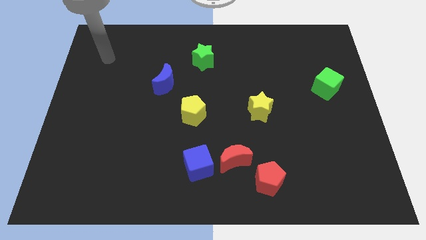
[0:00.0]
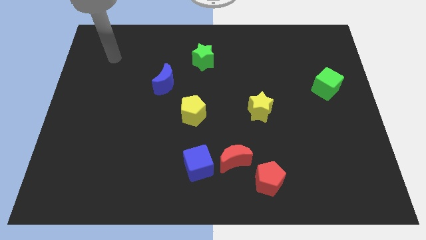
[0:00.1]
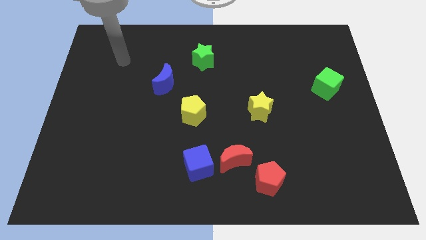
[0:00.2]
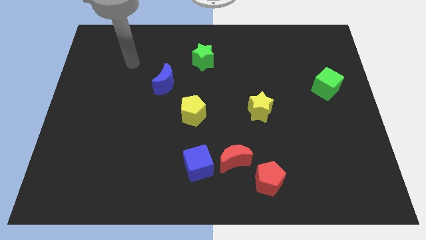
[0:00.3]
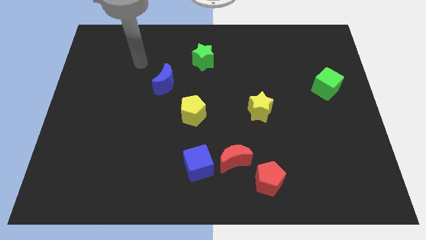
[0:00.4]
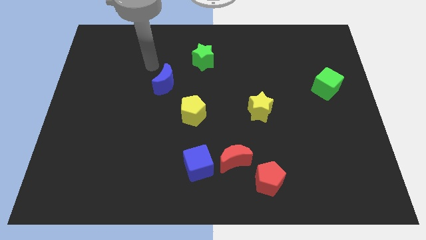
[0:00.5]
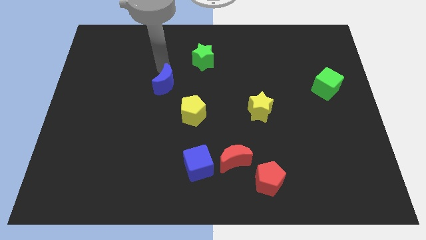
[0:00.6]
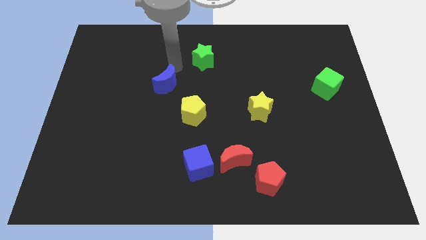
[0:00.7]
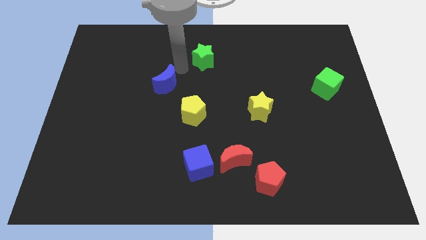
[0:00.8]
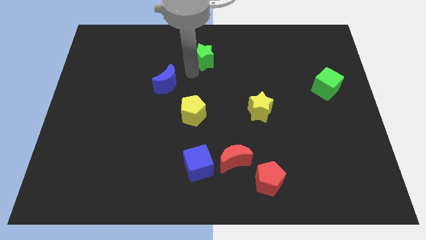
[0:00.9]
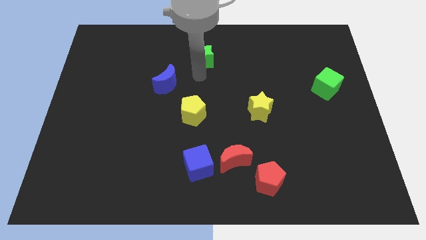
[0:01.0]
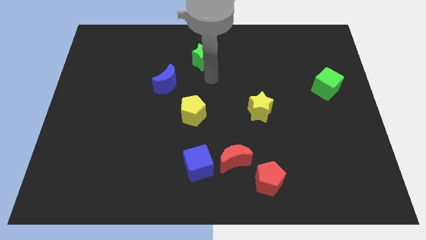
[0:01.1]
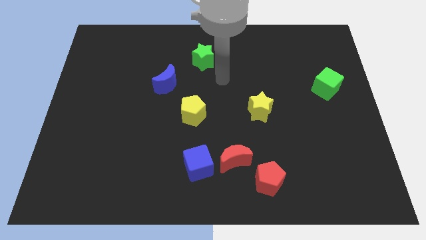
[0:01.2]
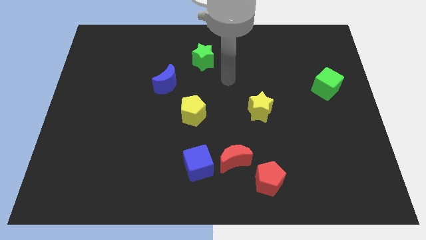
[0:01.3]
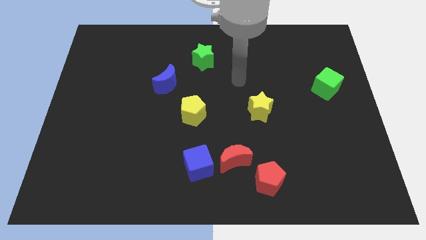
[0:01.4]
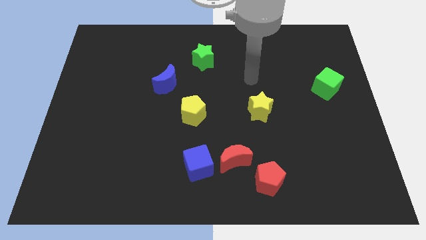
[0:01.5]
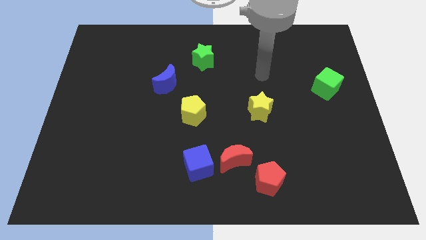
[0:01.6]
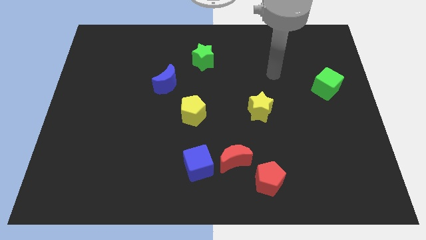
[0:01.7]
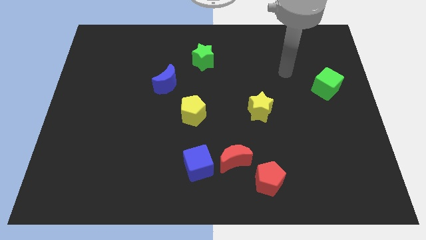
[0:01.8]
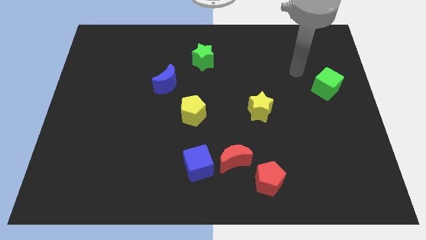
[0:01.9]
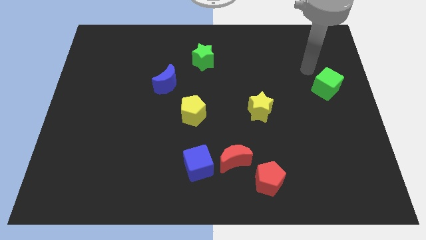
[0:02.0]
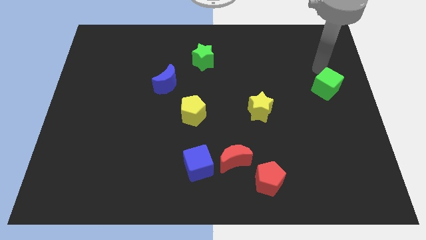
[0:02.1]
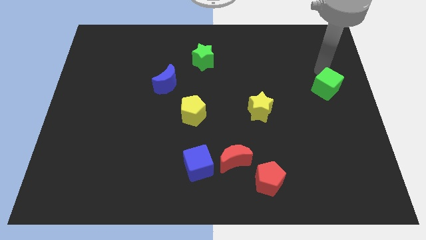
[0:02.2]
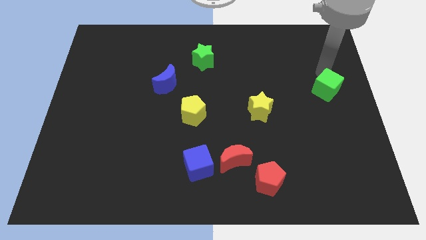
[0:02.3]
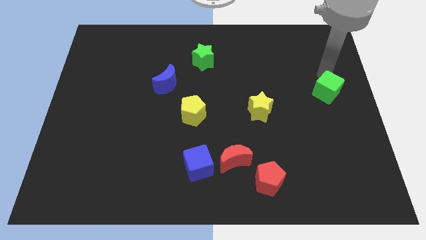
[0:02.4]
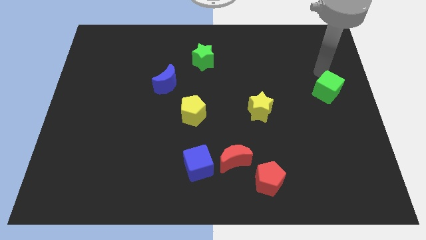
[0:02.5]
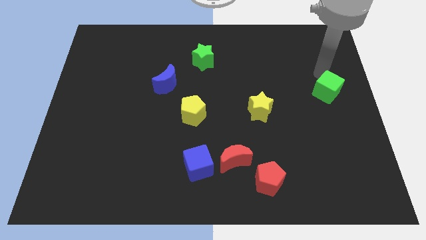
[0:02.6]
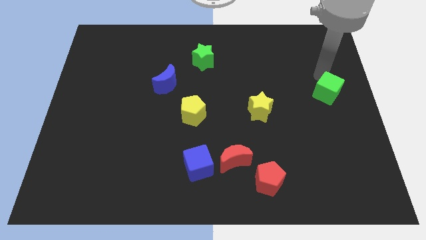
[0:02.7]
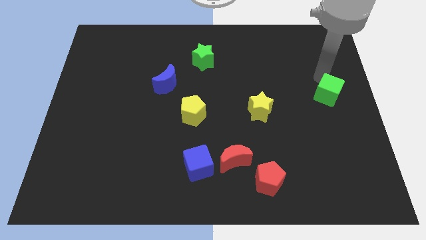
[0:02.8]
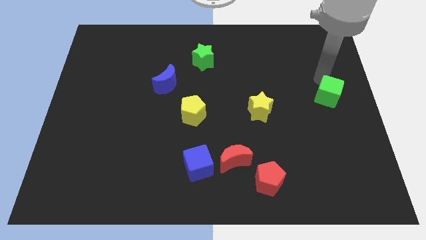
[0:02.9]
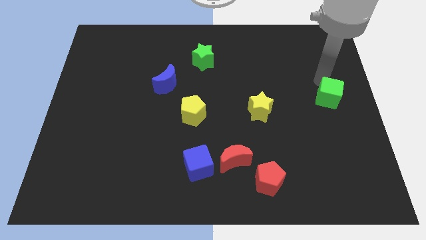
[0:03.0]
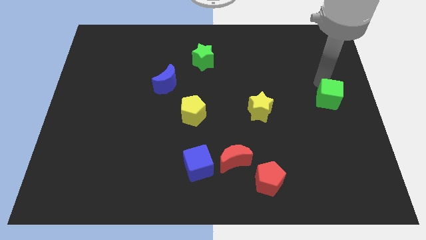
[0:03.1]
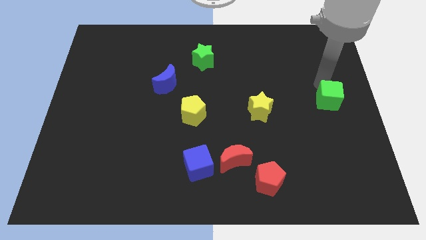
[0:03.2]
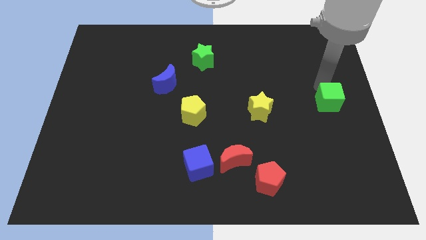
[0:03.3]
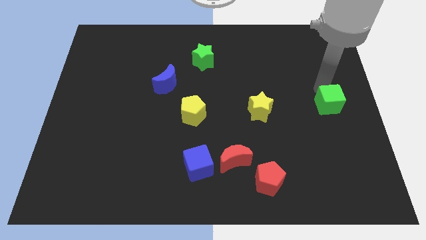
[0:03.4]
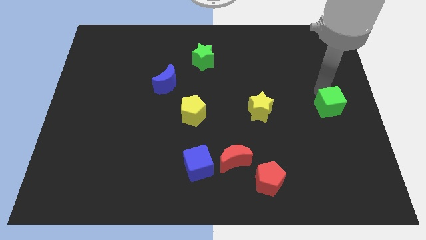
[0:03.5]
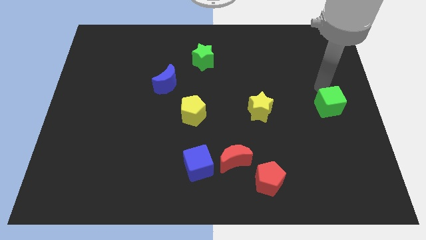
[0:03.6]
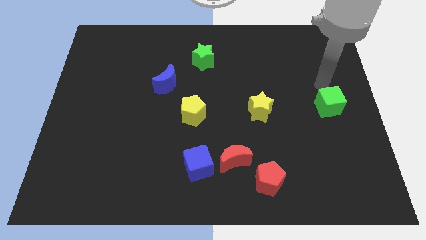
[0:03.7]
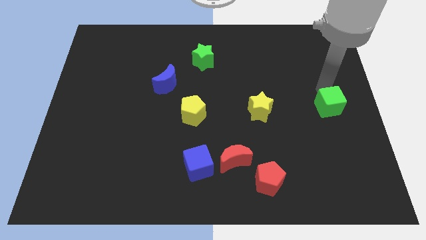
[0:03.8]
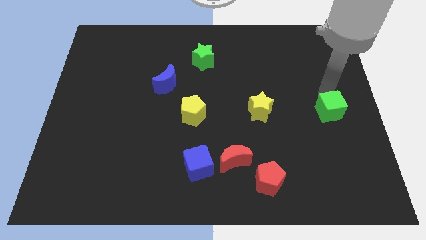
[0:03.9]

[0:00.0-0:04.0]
push the green cube a bit downwards

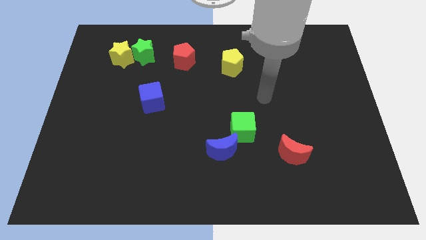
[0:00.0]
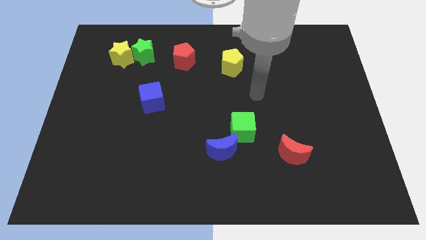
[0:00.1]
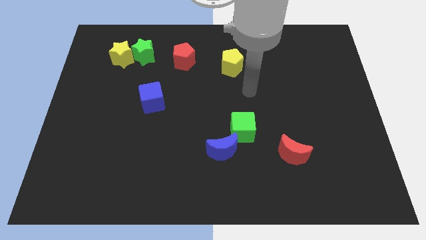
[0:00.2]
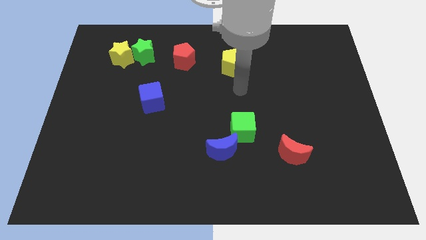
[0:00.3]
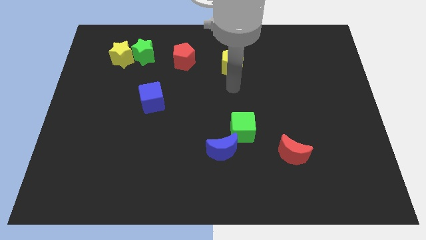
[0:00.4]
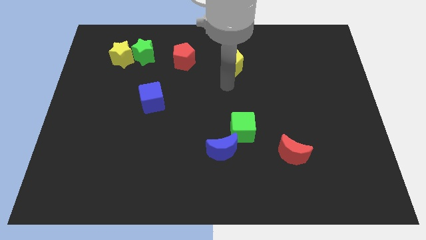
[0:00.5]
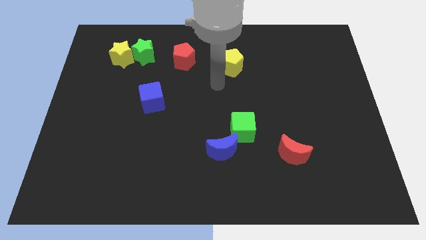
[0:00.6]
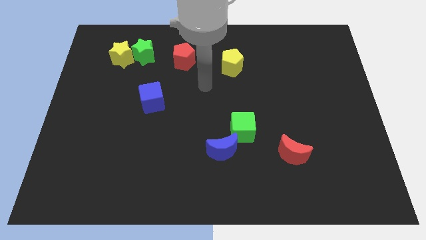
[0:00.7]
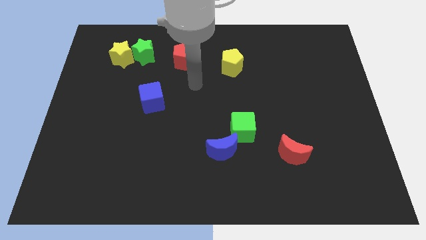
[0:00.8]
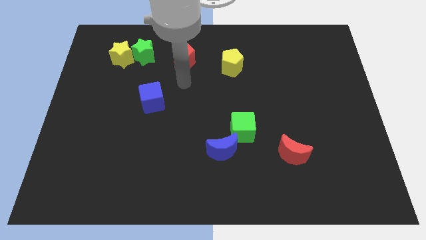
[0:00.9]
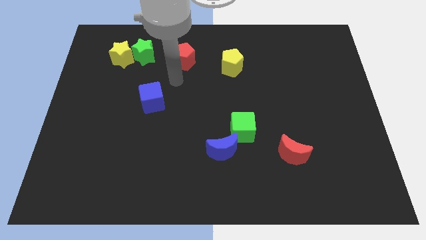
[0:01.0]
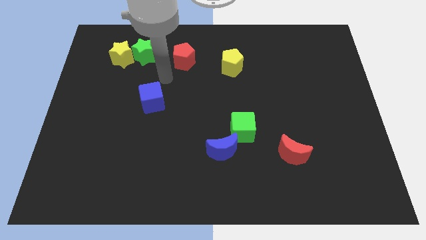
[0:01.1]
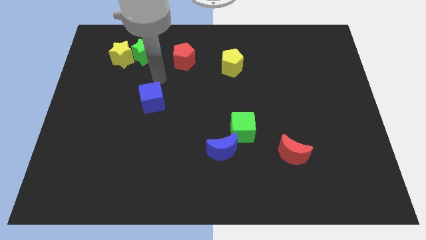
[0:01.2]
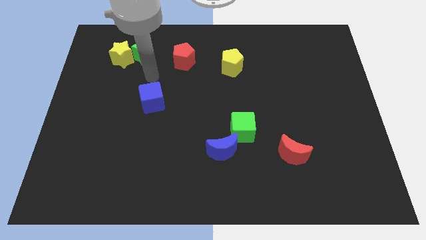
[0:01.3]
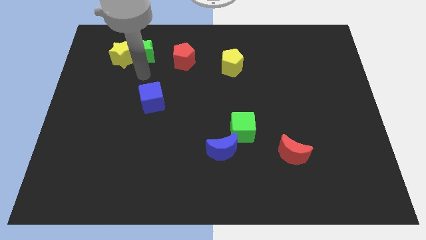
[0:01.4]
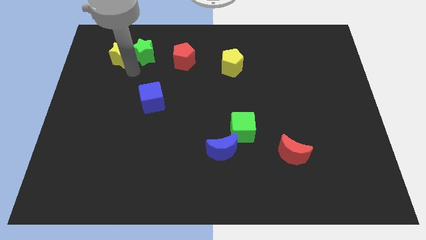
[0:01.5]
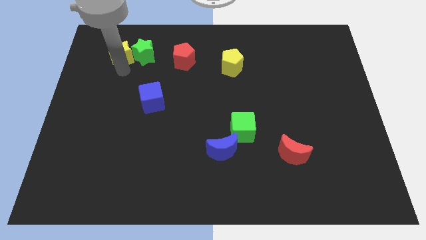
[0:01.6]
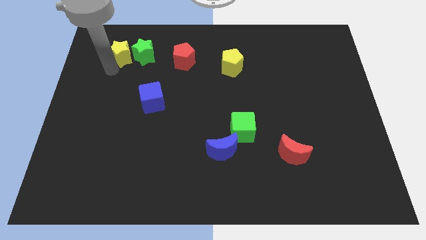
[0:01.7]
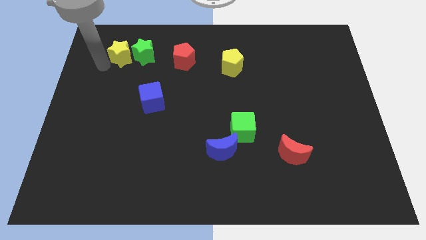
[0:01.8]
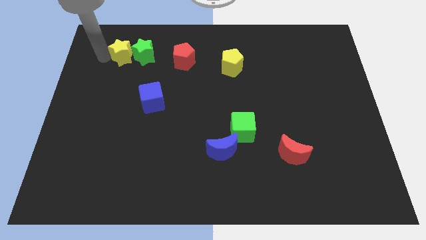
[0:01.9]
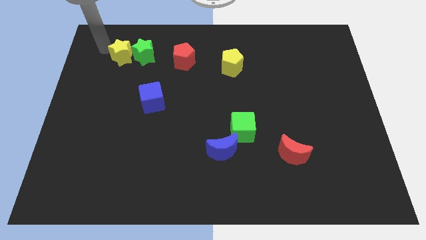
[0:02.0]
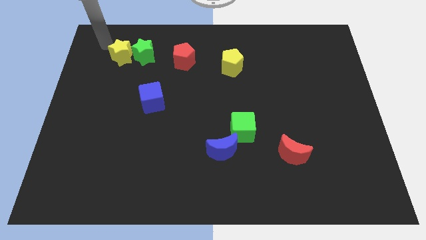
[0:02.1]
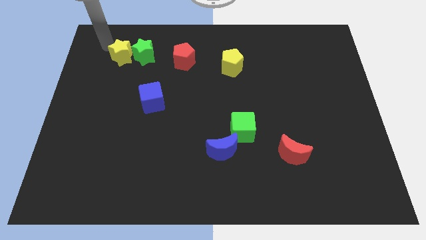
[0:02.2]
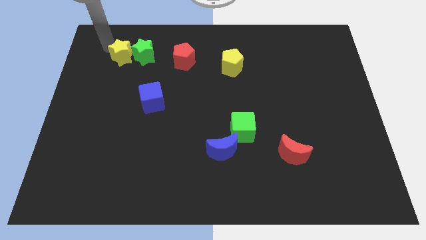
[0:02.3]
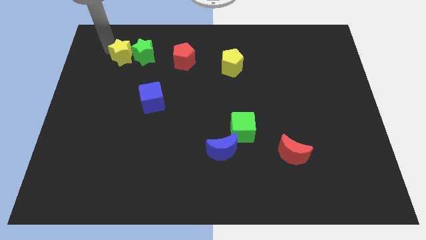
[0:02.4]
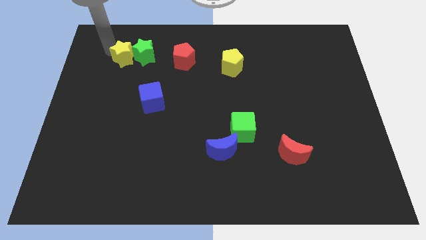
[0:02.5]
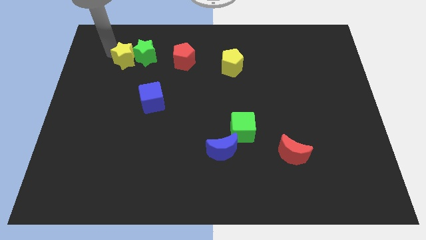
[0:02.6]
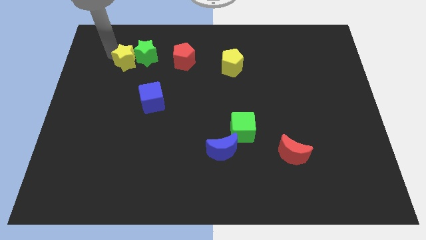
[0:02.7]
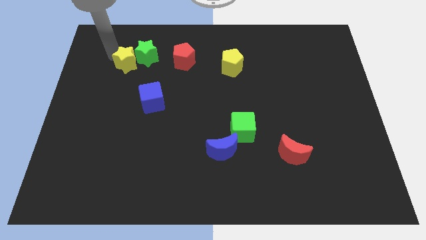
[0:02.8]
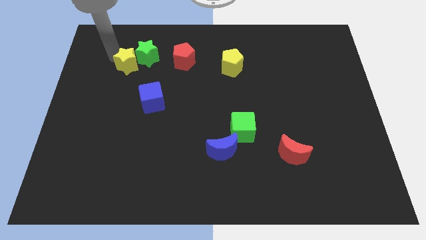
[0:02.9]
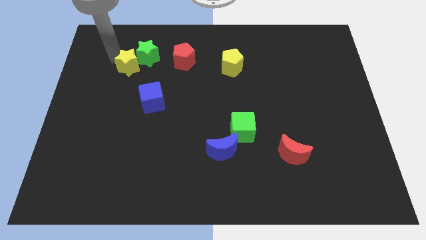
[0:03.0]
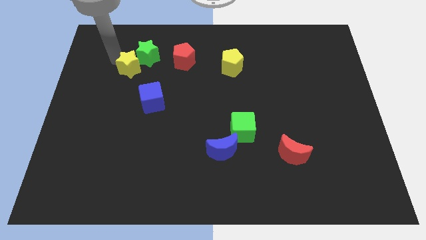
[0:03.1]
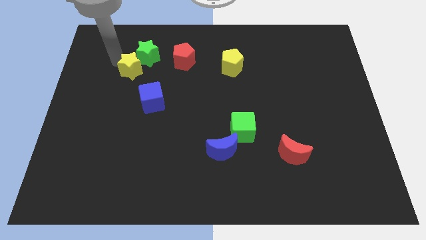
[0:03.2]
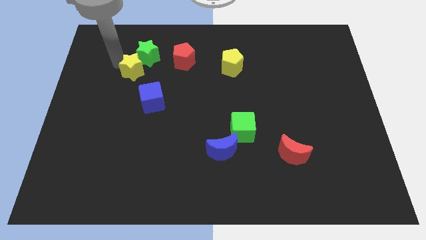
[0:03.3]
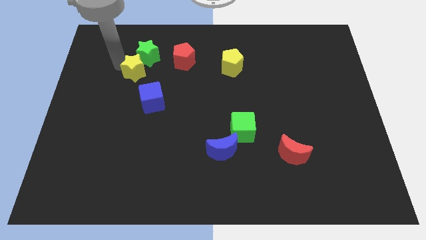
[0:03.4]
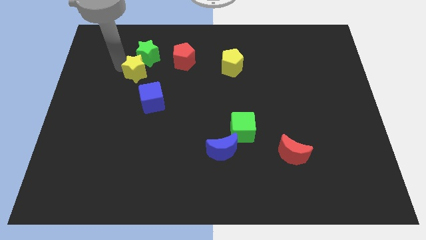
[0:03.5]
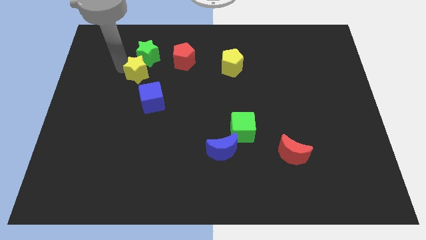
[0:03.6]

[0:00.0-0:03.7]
push the yellow star slightly downwards and right diagonally
